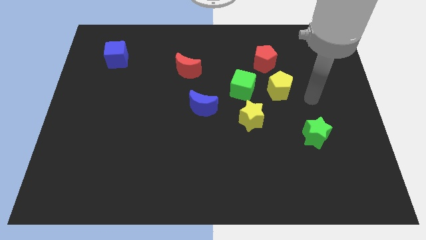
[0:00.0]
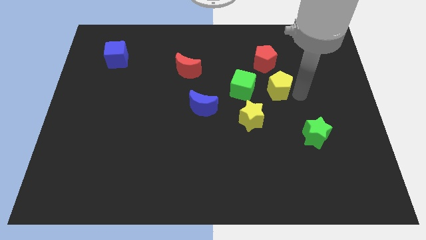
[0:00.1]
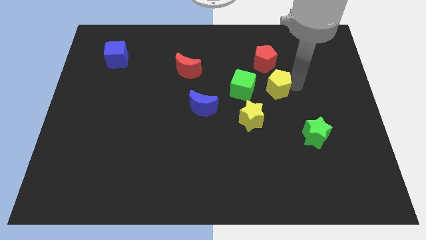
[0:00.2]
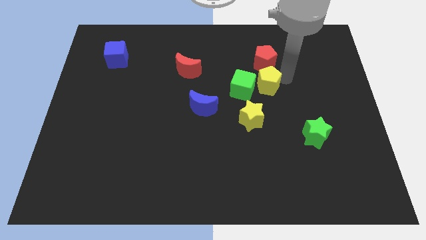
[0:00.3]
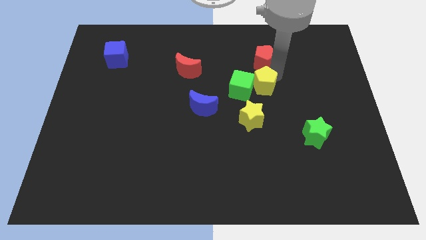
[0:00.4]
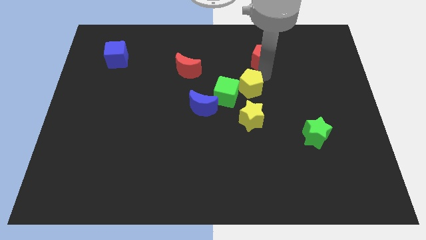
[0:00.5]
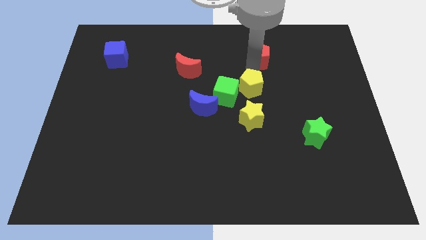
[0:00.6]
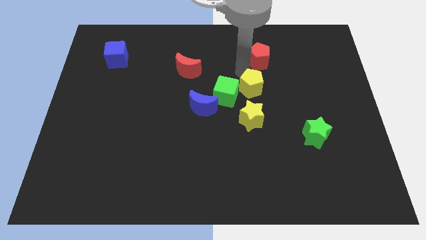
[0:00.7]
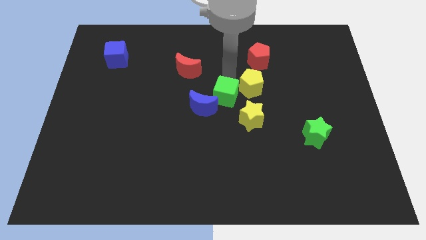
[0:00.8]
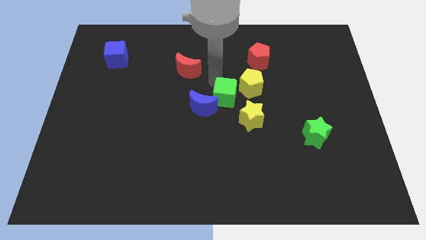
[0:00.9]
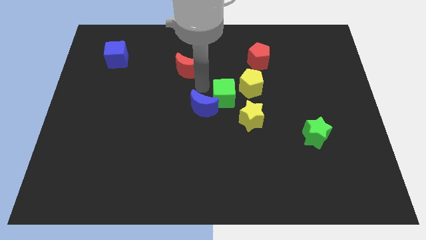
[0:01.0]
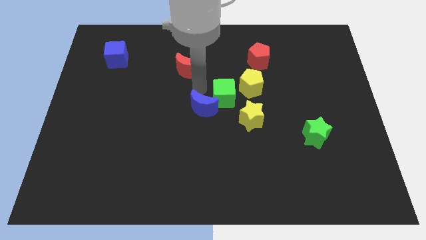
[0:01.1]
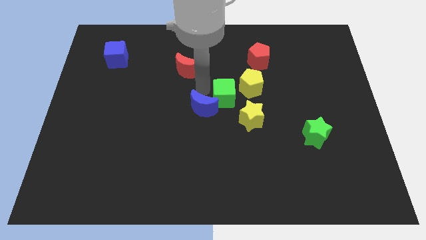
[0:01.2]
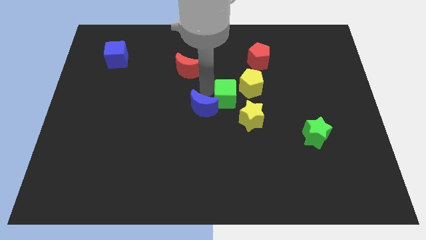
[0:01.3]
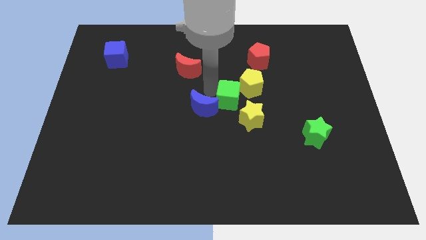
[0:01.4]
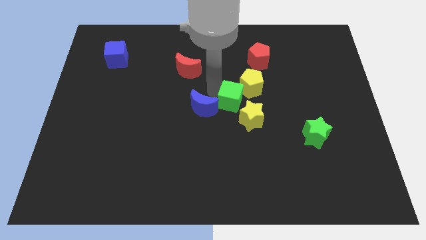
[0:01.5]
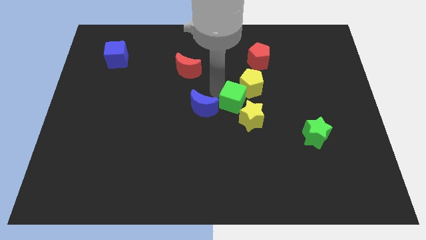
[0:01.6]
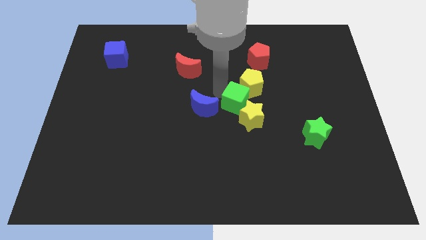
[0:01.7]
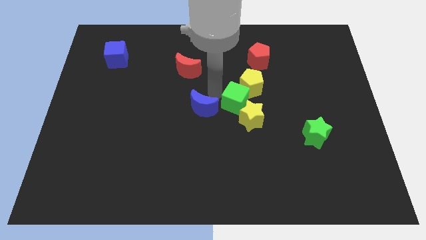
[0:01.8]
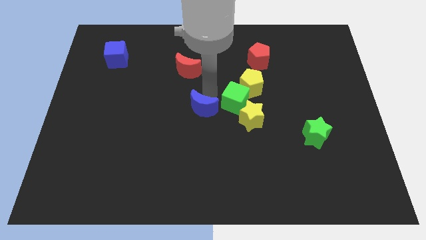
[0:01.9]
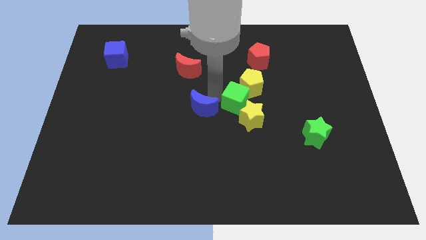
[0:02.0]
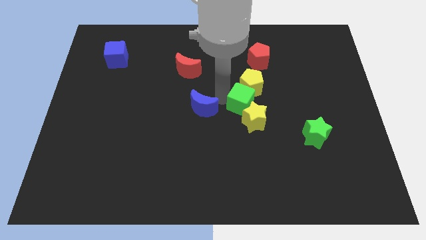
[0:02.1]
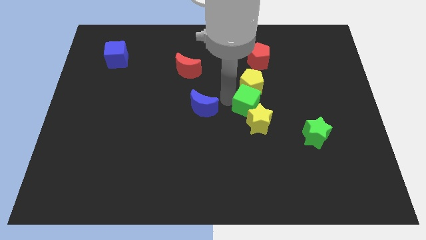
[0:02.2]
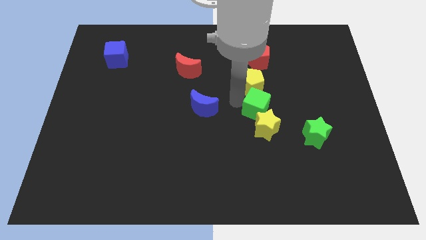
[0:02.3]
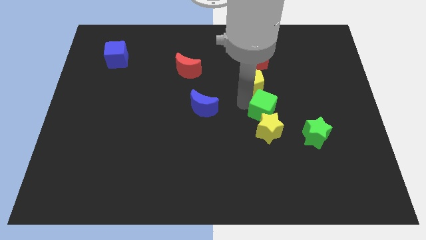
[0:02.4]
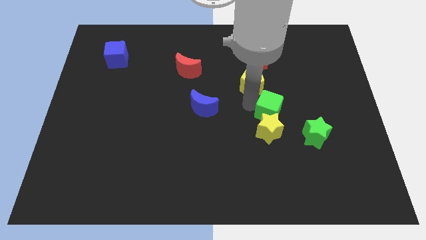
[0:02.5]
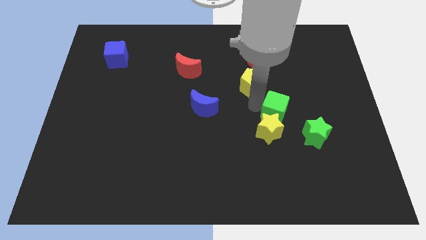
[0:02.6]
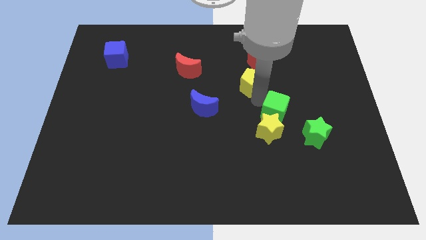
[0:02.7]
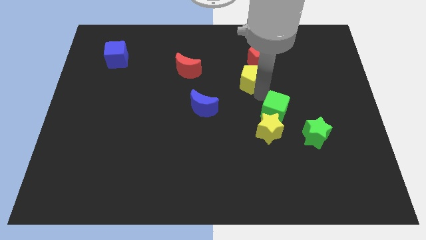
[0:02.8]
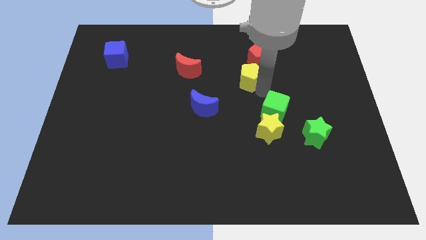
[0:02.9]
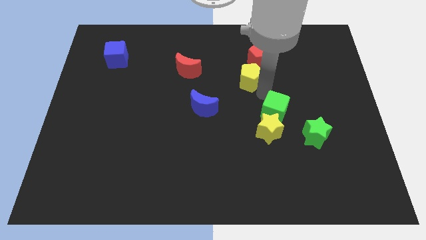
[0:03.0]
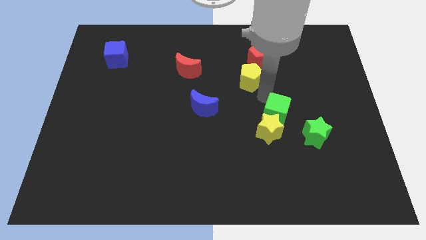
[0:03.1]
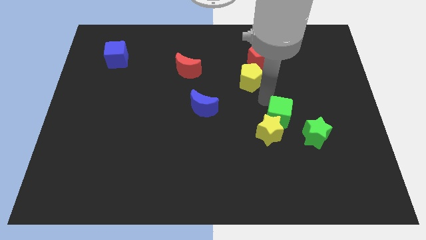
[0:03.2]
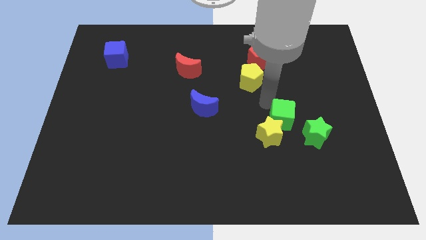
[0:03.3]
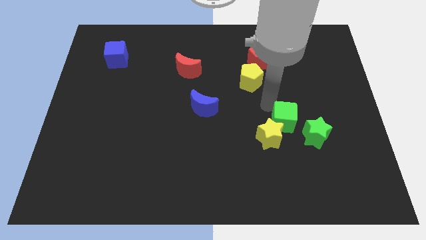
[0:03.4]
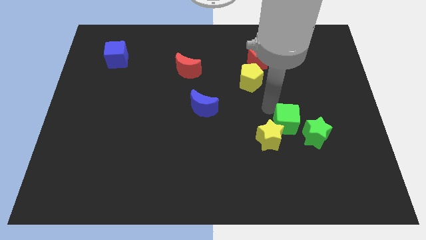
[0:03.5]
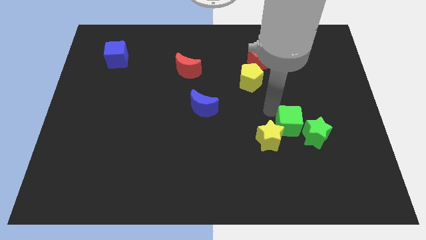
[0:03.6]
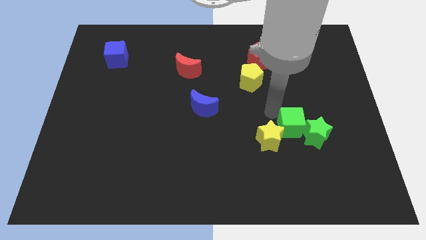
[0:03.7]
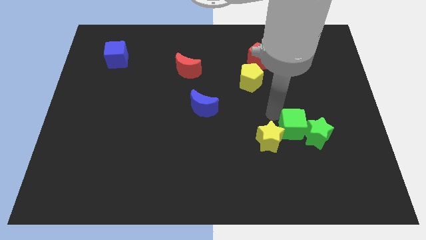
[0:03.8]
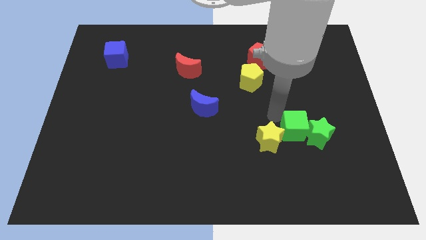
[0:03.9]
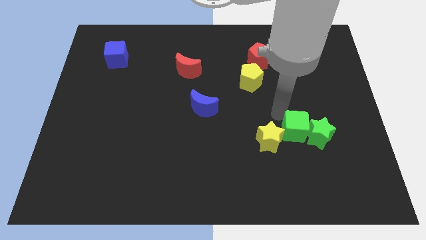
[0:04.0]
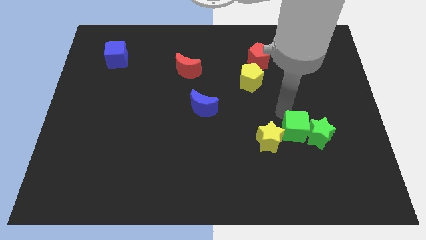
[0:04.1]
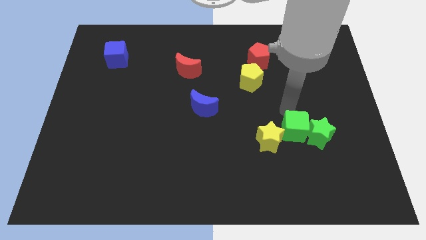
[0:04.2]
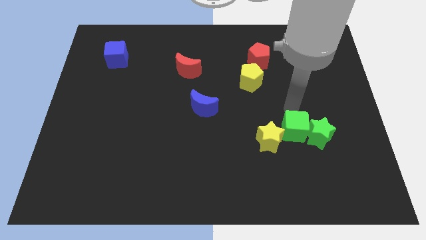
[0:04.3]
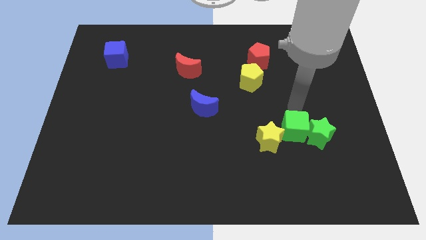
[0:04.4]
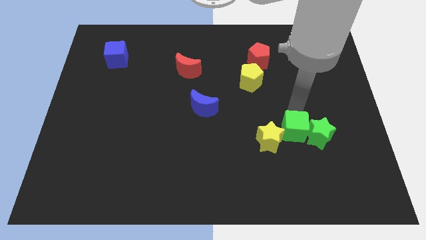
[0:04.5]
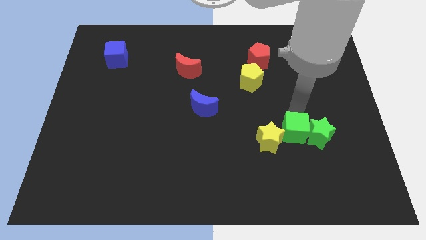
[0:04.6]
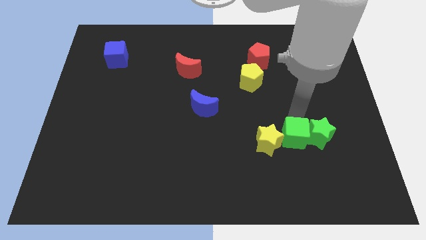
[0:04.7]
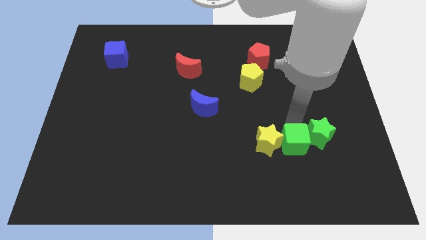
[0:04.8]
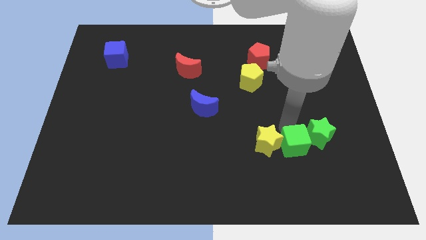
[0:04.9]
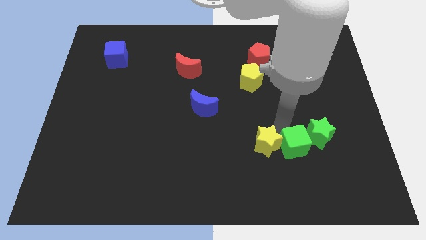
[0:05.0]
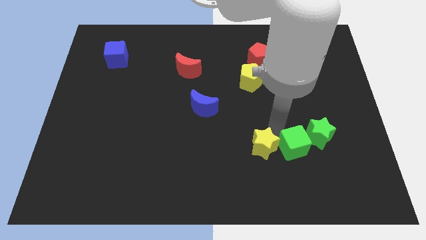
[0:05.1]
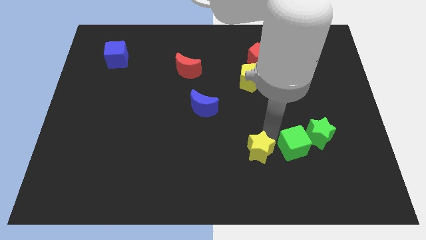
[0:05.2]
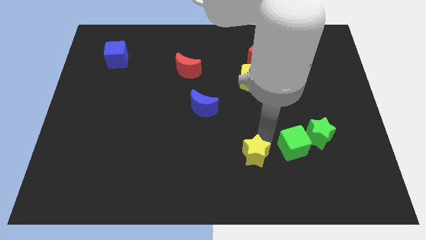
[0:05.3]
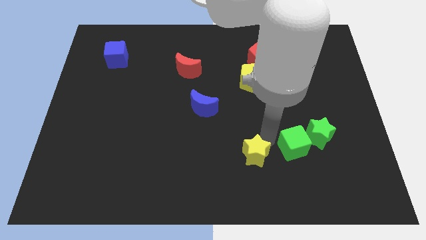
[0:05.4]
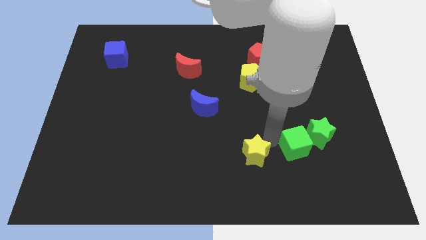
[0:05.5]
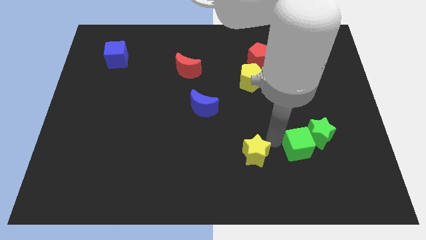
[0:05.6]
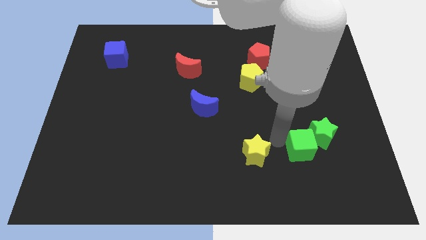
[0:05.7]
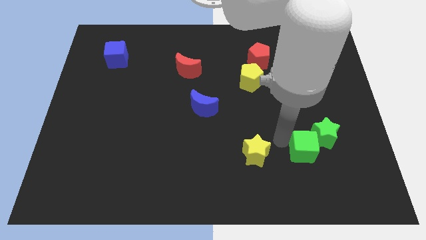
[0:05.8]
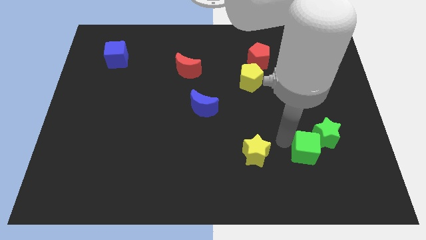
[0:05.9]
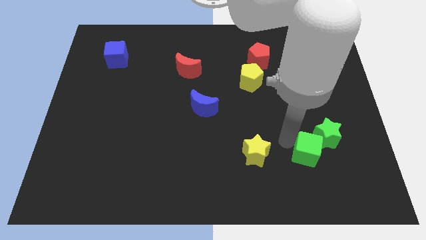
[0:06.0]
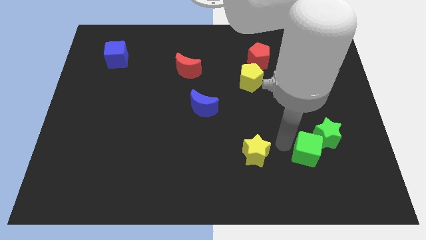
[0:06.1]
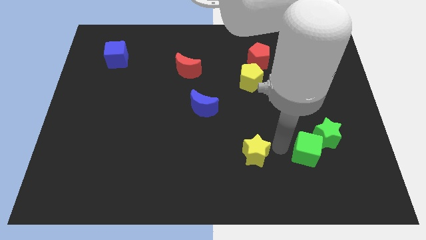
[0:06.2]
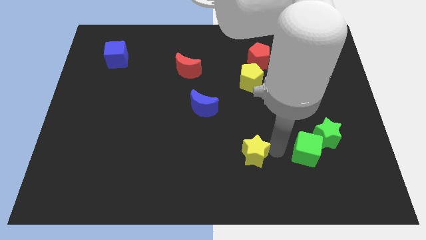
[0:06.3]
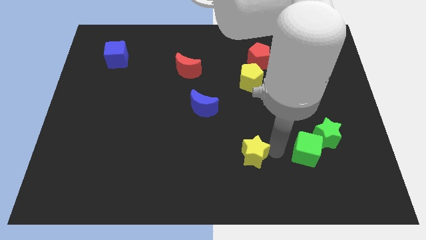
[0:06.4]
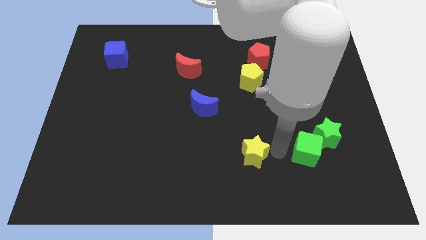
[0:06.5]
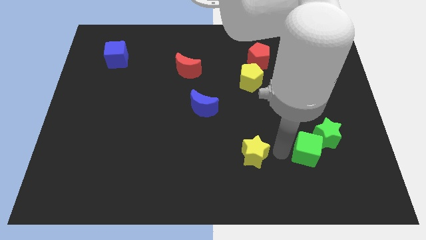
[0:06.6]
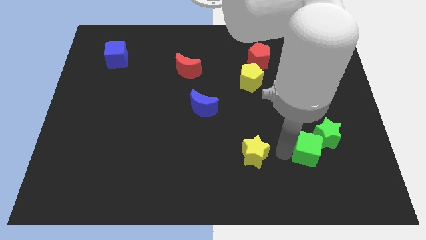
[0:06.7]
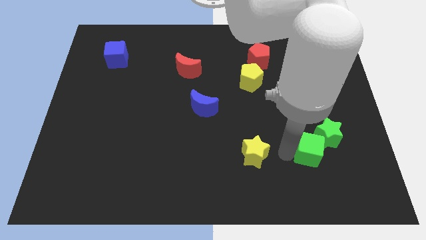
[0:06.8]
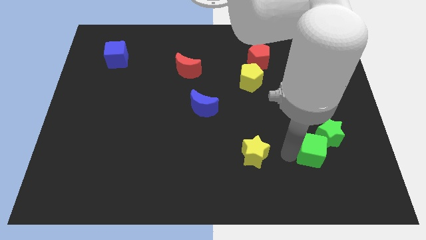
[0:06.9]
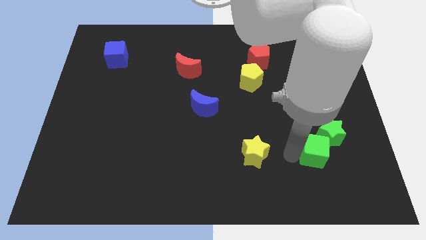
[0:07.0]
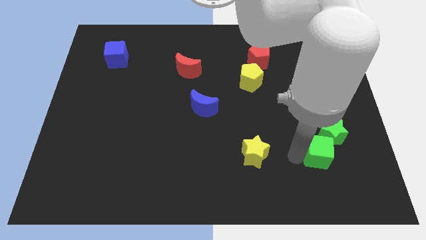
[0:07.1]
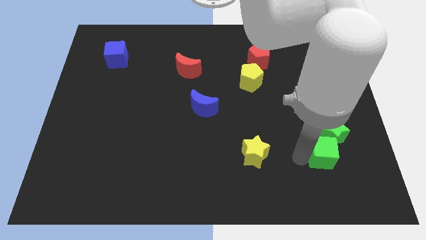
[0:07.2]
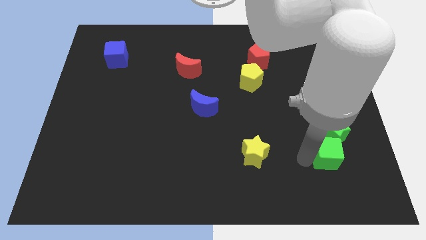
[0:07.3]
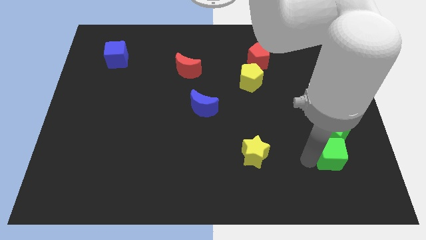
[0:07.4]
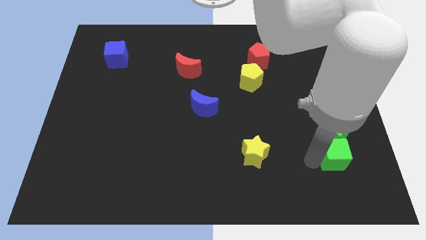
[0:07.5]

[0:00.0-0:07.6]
push the green cube to the bottom right side of the green star

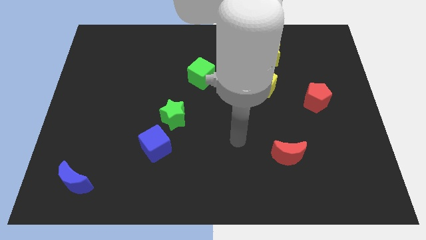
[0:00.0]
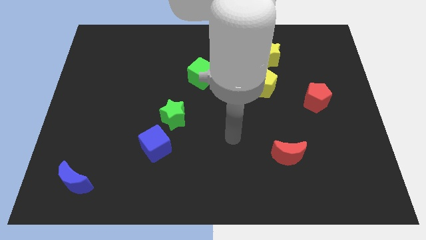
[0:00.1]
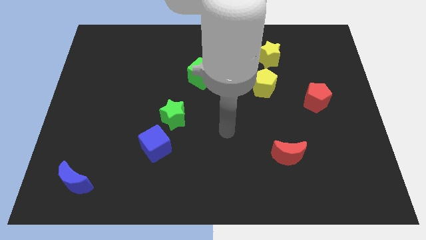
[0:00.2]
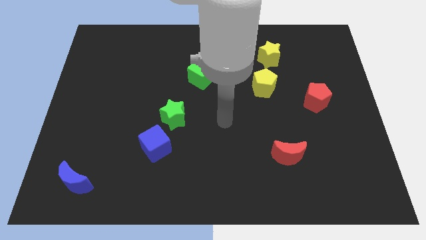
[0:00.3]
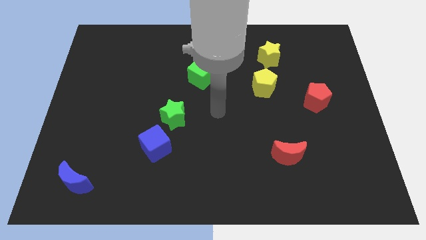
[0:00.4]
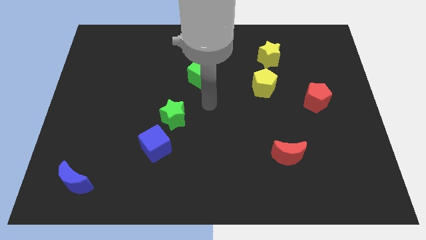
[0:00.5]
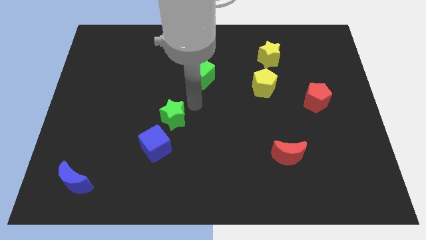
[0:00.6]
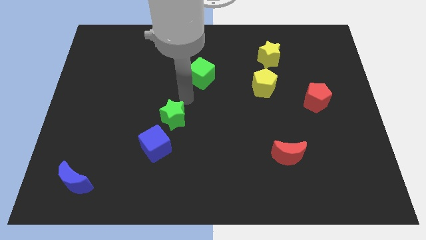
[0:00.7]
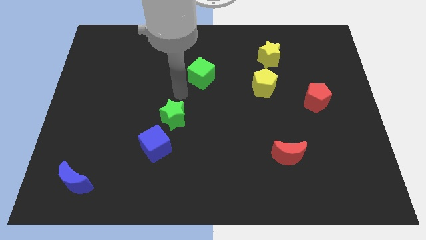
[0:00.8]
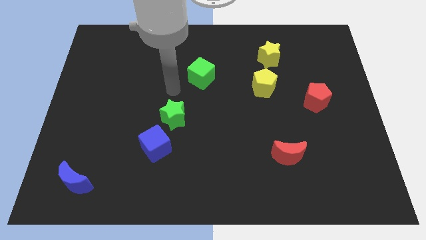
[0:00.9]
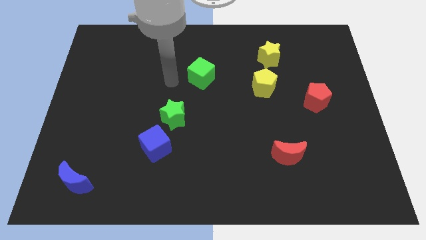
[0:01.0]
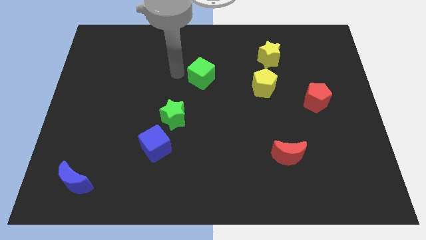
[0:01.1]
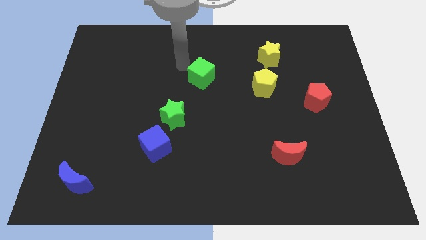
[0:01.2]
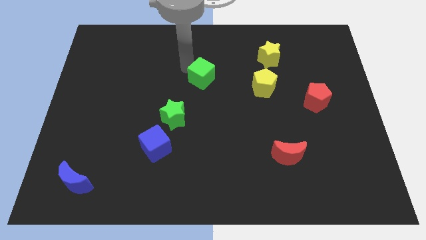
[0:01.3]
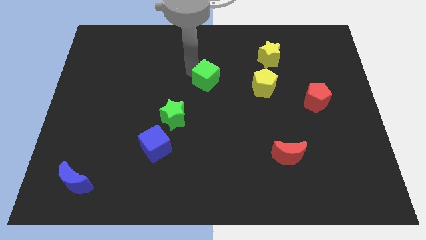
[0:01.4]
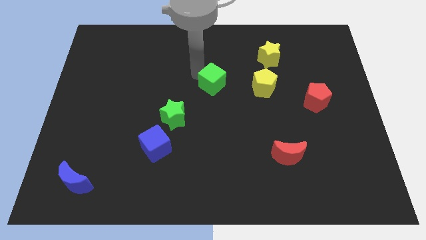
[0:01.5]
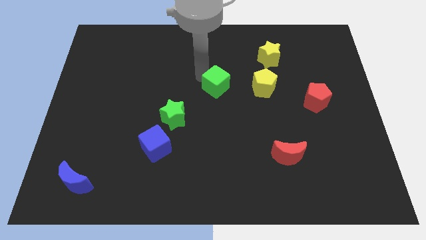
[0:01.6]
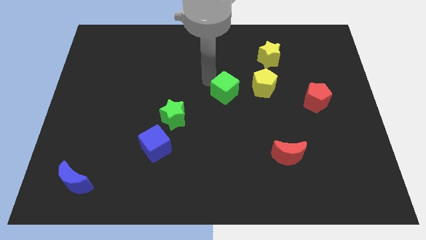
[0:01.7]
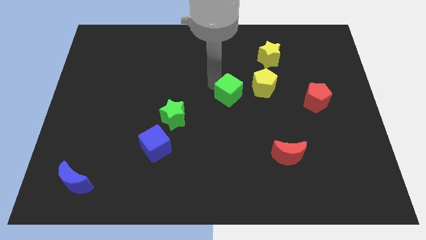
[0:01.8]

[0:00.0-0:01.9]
push the green cube diagonally down and to the left of the yellow pentagon
